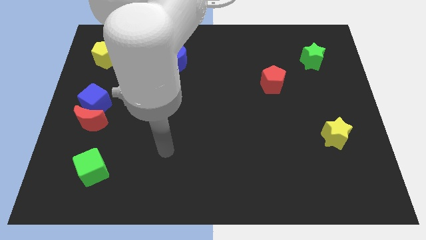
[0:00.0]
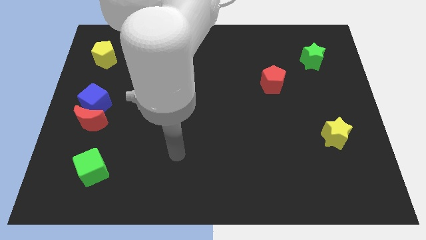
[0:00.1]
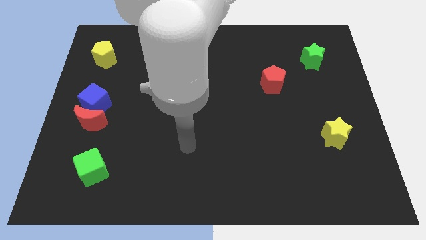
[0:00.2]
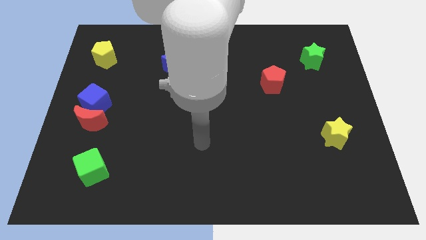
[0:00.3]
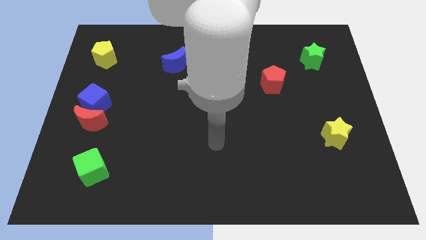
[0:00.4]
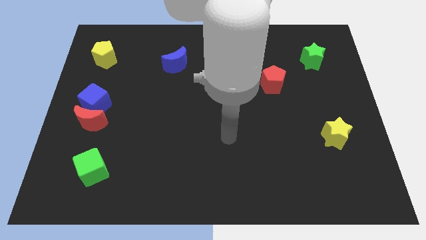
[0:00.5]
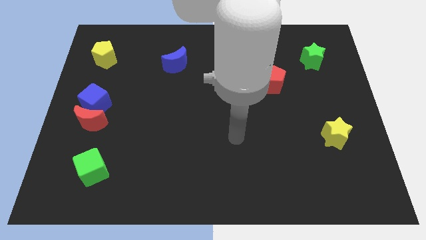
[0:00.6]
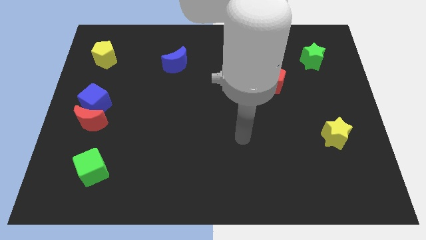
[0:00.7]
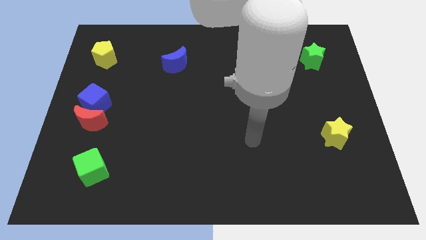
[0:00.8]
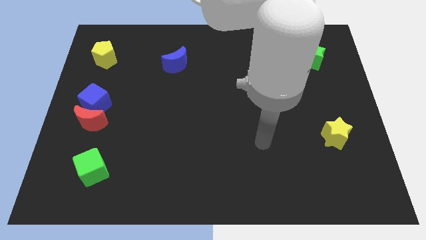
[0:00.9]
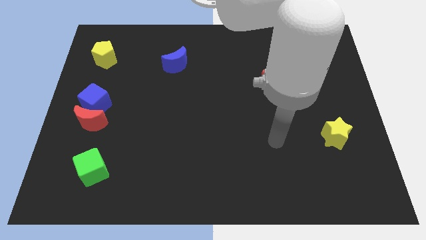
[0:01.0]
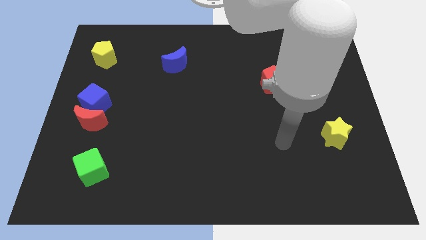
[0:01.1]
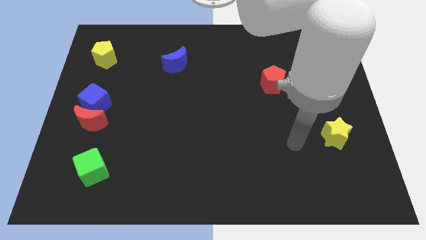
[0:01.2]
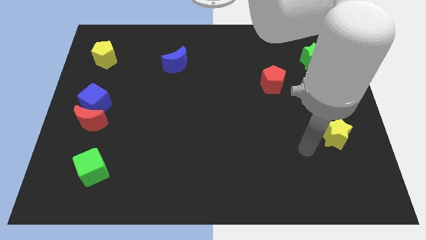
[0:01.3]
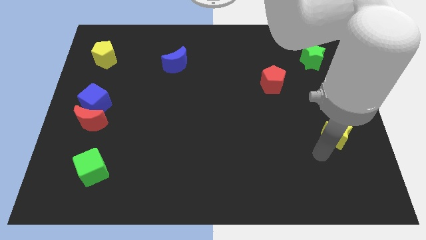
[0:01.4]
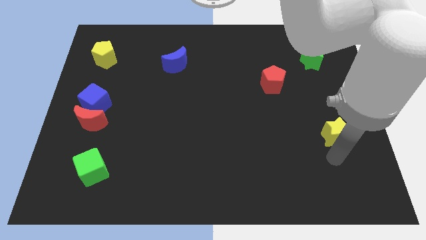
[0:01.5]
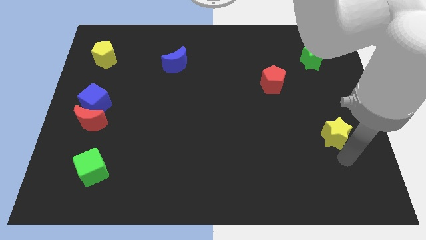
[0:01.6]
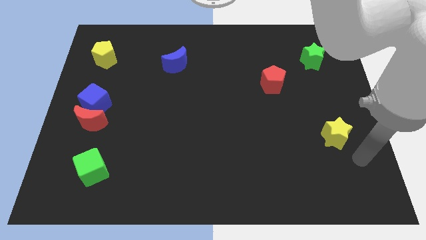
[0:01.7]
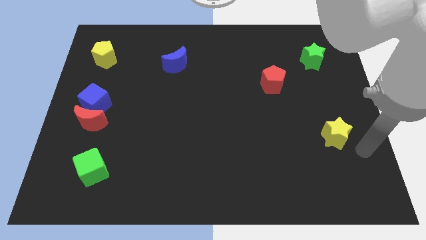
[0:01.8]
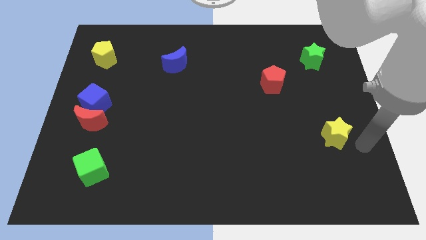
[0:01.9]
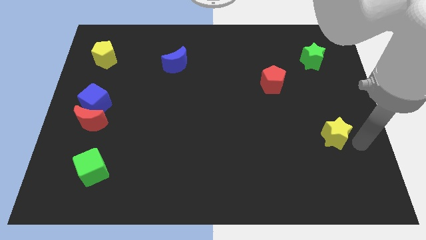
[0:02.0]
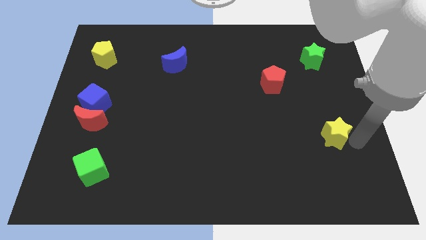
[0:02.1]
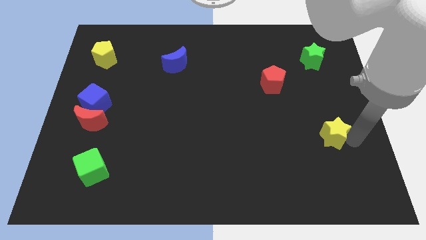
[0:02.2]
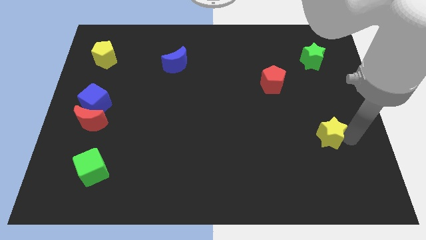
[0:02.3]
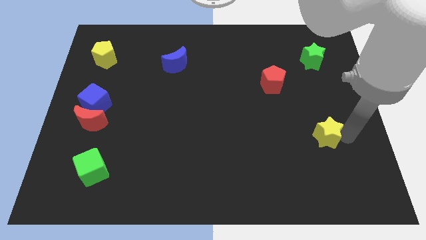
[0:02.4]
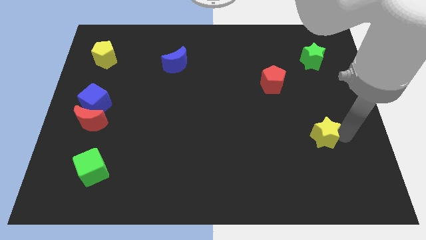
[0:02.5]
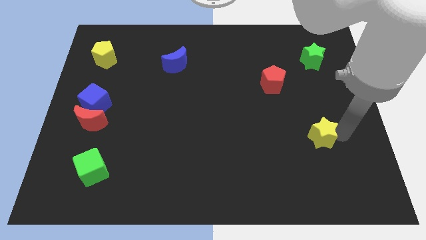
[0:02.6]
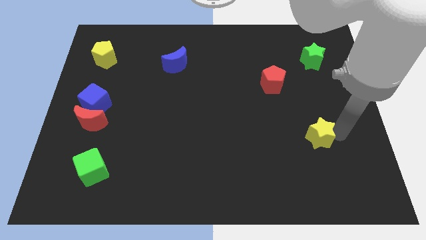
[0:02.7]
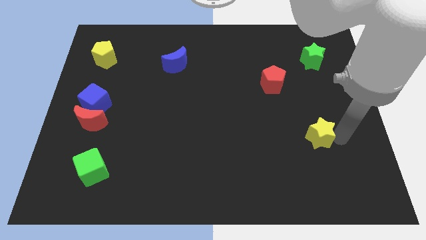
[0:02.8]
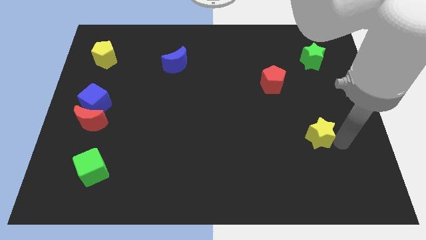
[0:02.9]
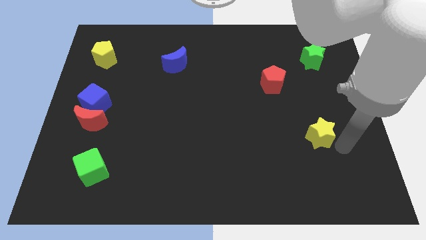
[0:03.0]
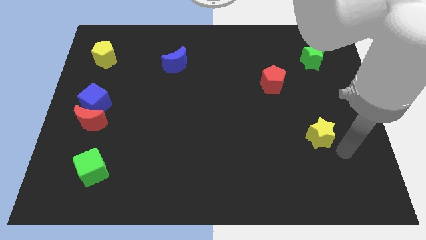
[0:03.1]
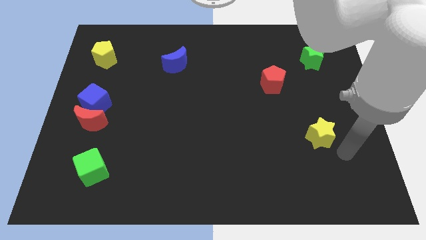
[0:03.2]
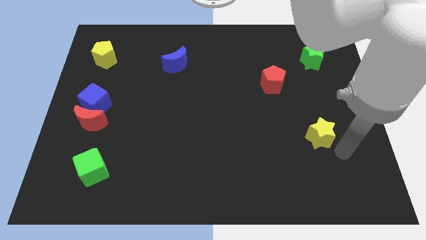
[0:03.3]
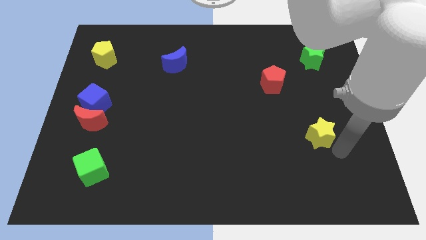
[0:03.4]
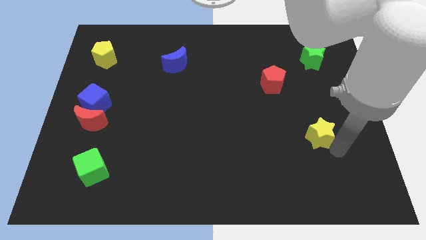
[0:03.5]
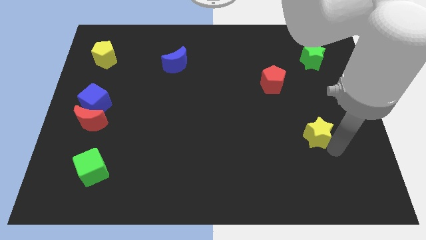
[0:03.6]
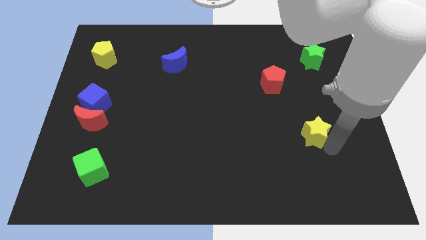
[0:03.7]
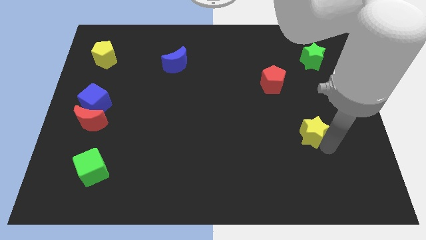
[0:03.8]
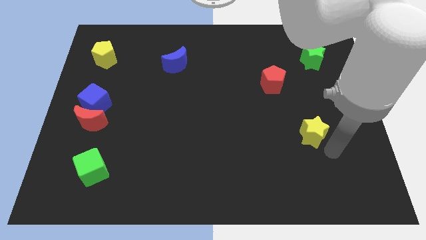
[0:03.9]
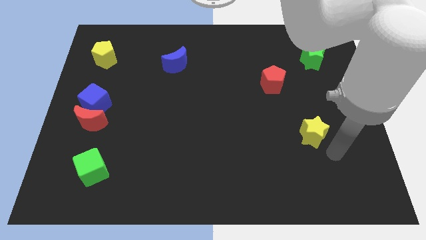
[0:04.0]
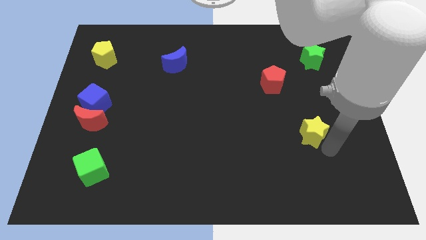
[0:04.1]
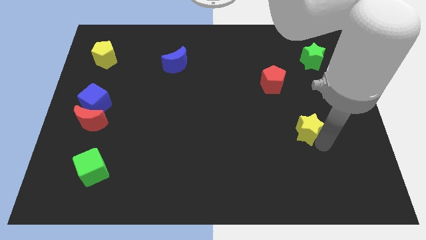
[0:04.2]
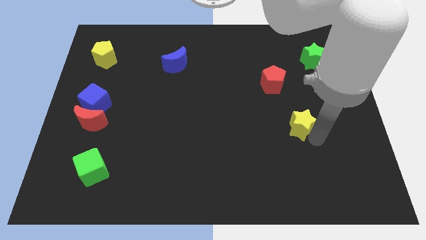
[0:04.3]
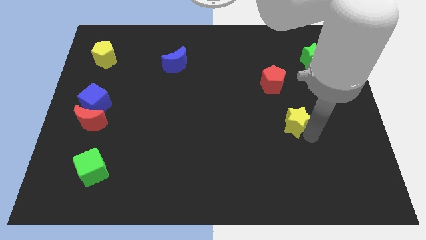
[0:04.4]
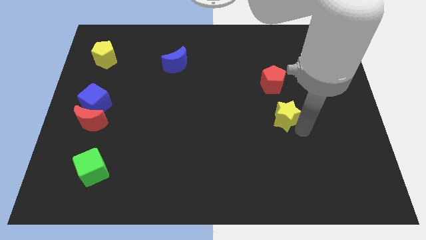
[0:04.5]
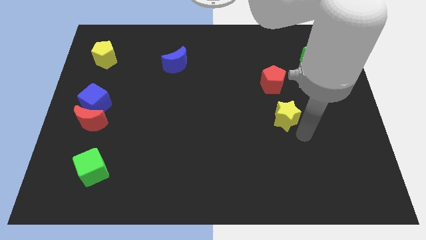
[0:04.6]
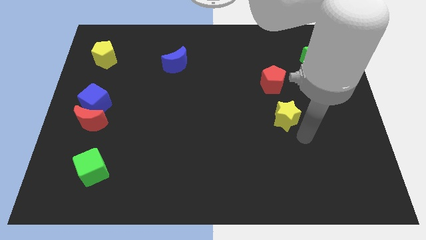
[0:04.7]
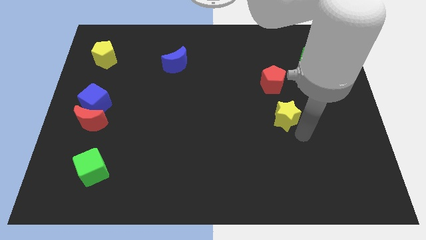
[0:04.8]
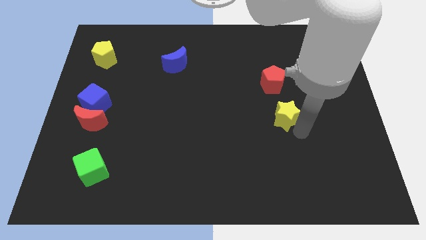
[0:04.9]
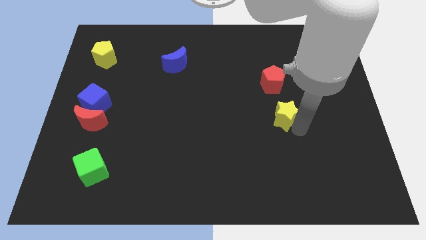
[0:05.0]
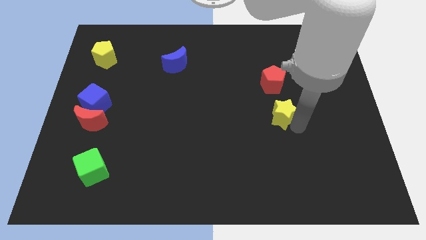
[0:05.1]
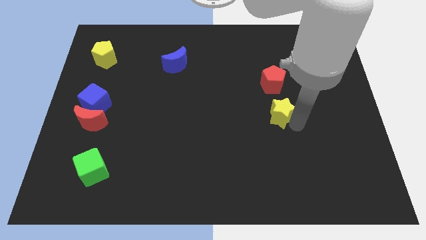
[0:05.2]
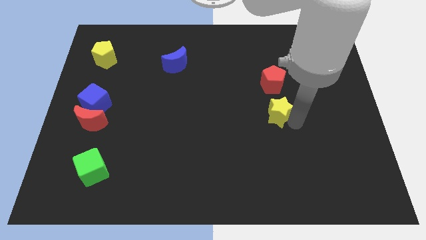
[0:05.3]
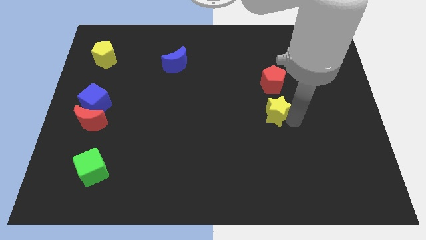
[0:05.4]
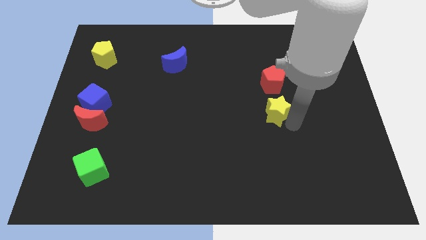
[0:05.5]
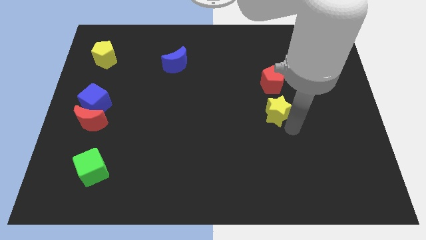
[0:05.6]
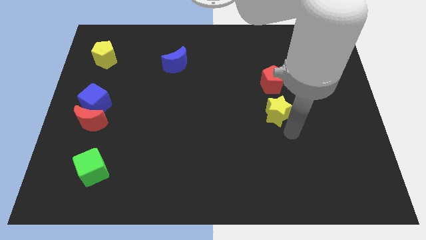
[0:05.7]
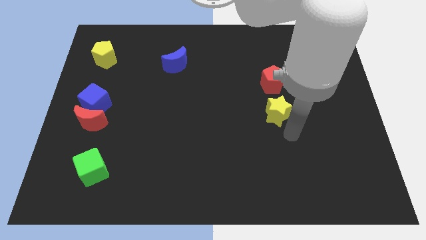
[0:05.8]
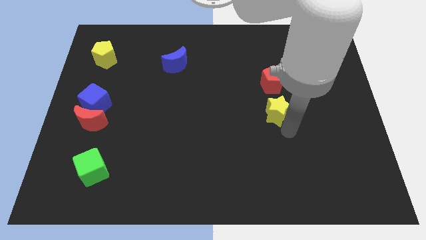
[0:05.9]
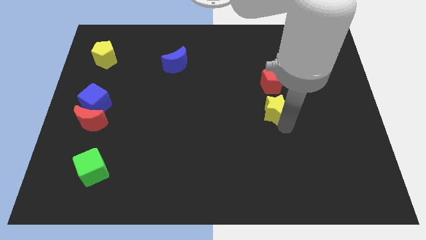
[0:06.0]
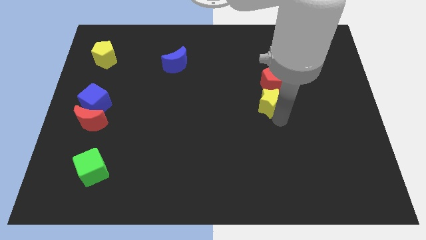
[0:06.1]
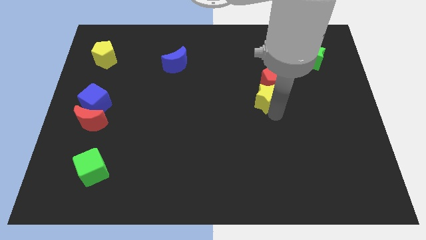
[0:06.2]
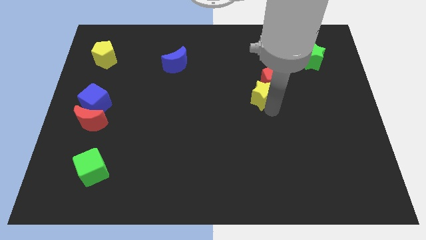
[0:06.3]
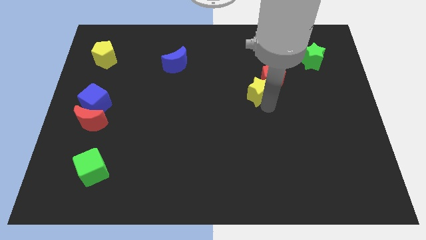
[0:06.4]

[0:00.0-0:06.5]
slide the yellow star diagonally upwards and left

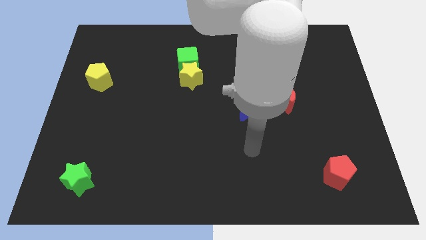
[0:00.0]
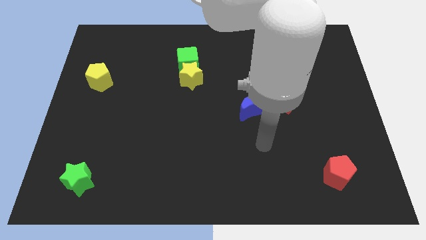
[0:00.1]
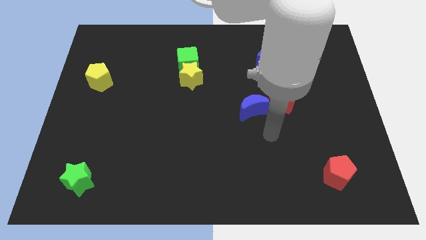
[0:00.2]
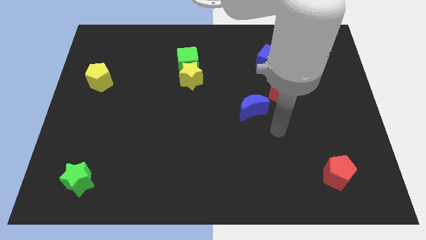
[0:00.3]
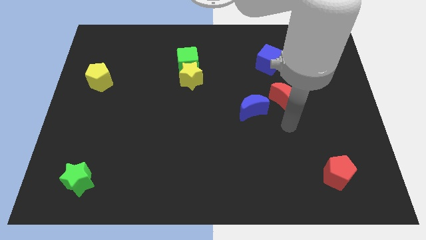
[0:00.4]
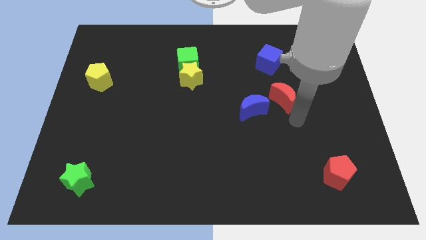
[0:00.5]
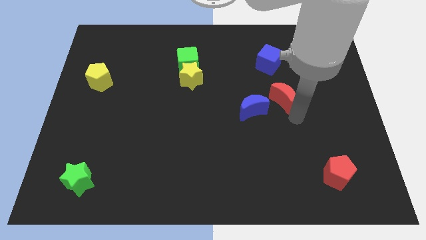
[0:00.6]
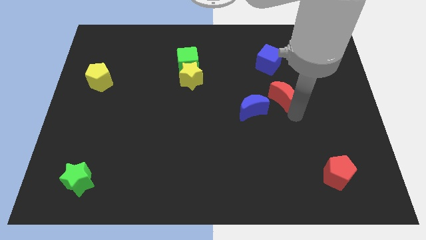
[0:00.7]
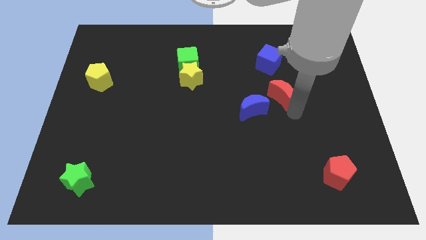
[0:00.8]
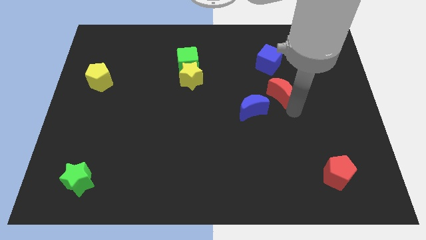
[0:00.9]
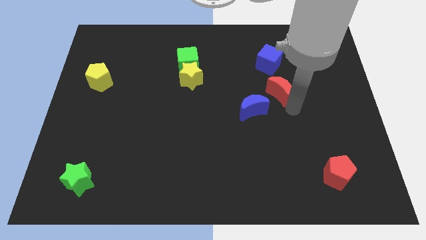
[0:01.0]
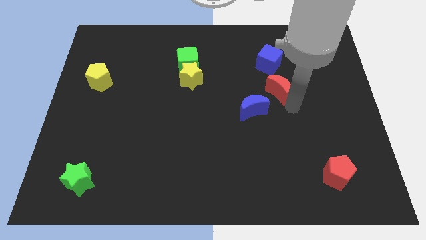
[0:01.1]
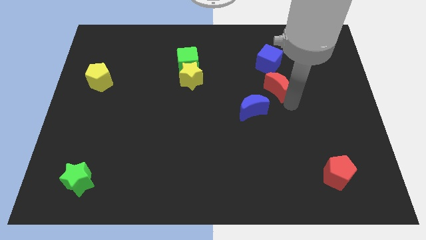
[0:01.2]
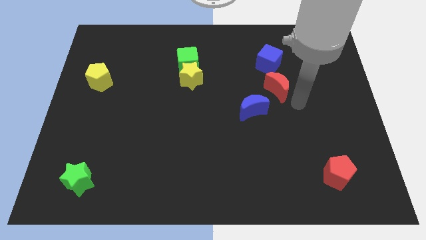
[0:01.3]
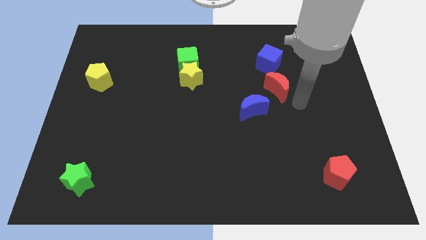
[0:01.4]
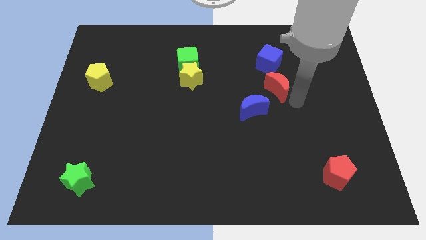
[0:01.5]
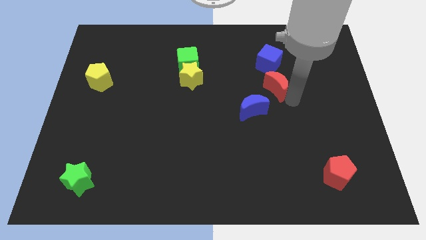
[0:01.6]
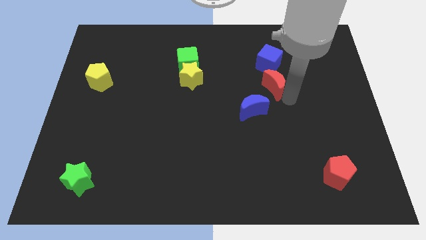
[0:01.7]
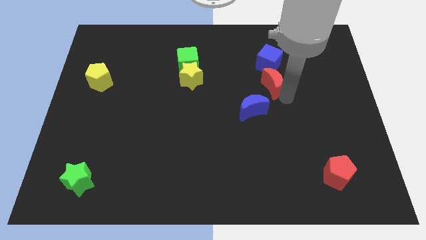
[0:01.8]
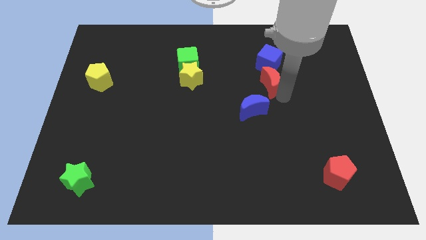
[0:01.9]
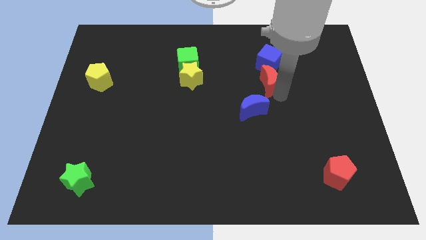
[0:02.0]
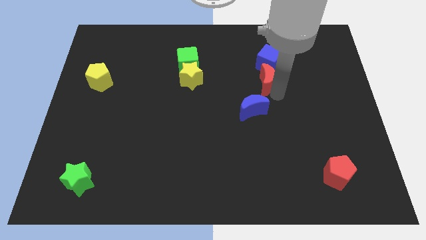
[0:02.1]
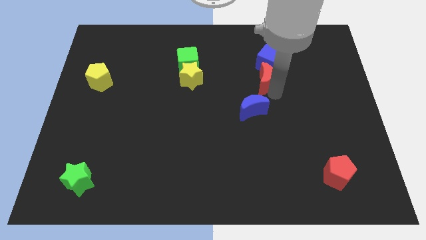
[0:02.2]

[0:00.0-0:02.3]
slide the red moon upwards and to the left a bit
